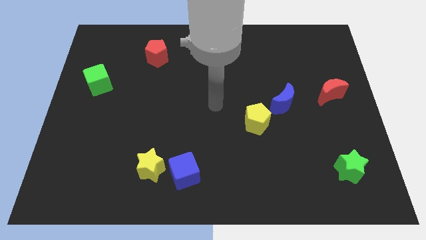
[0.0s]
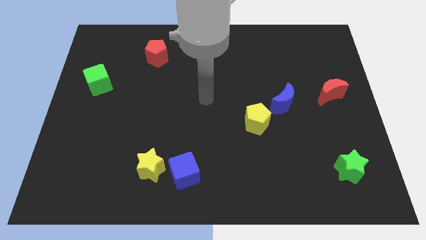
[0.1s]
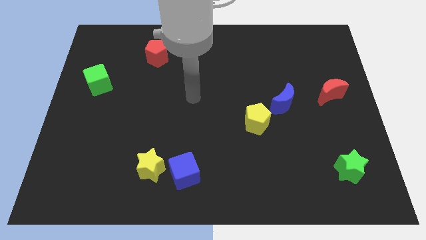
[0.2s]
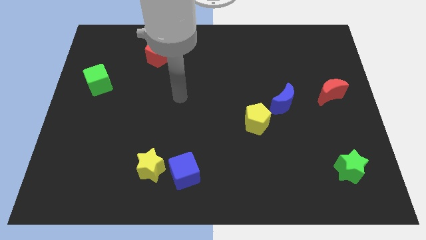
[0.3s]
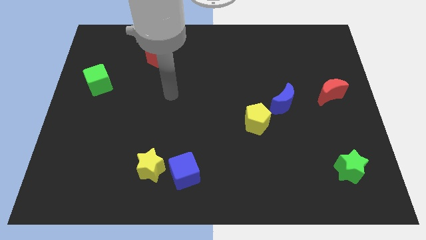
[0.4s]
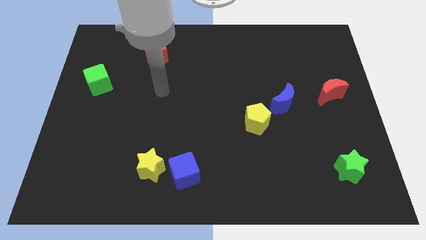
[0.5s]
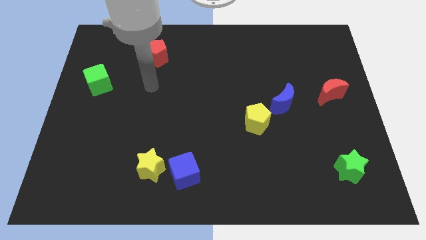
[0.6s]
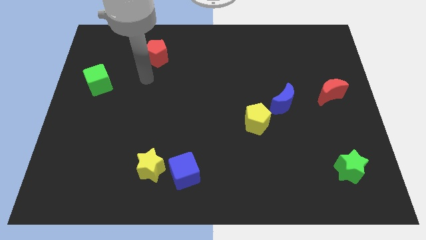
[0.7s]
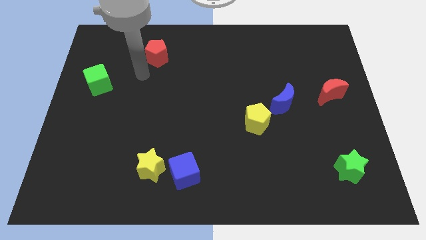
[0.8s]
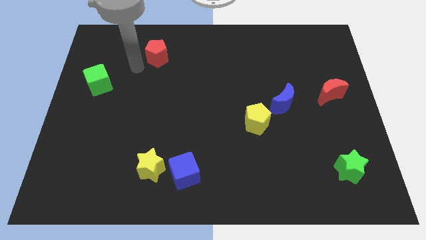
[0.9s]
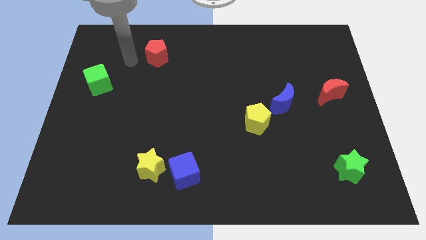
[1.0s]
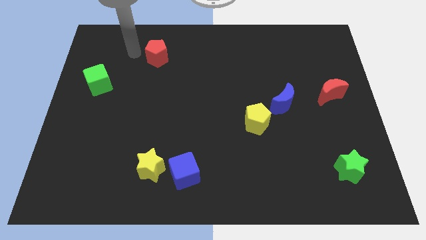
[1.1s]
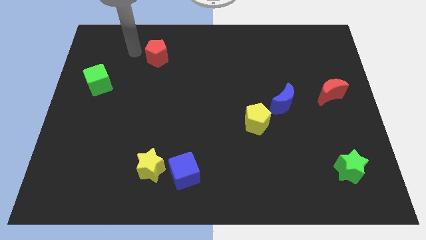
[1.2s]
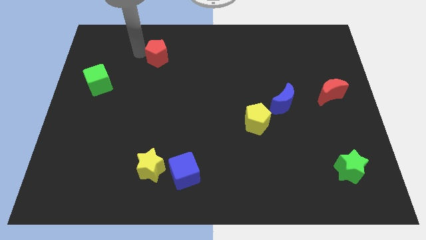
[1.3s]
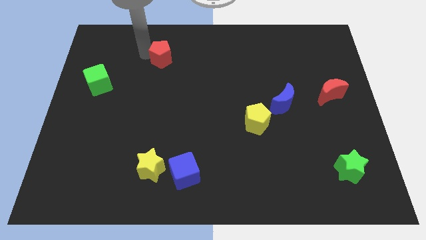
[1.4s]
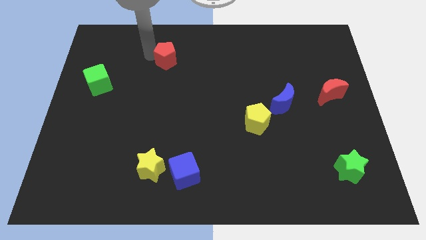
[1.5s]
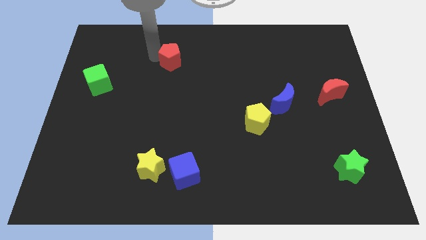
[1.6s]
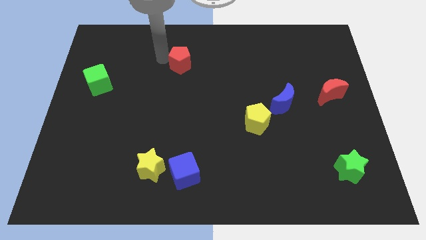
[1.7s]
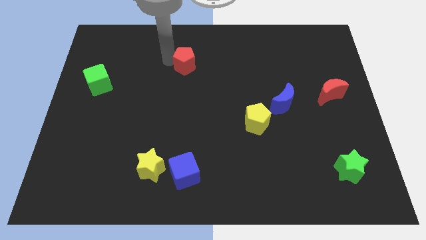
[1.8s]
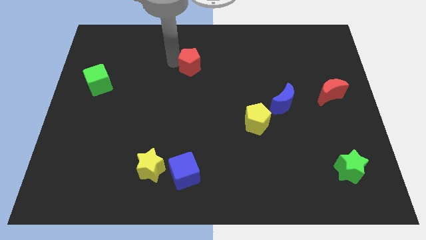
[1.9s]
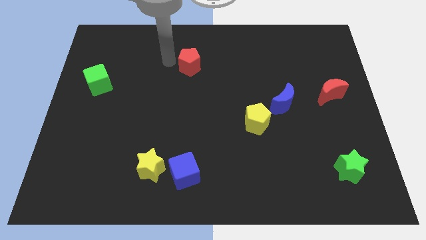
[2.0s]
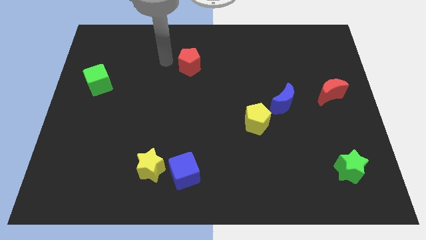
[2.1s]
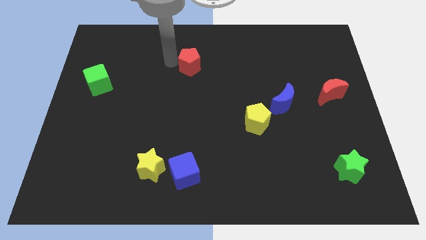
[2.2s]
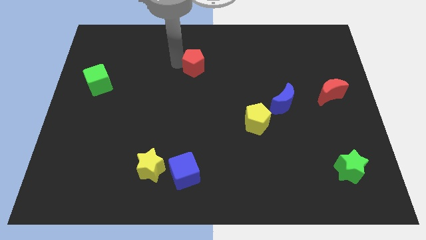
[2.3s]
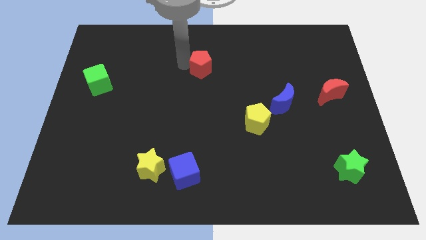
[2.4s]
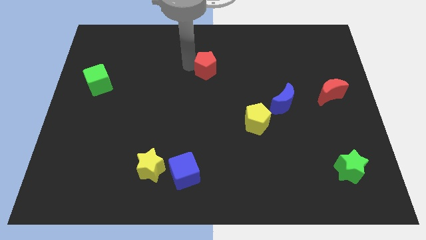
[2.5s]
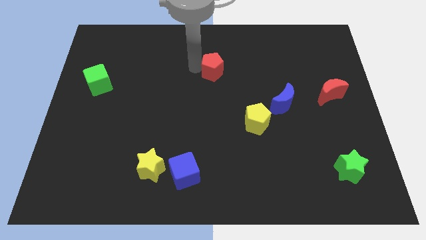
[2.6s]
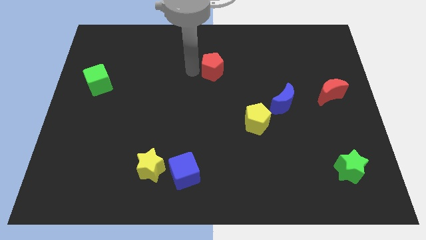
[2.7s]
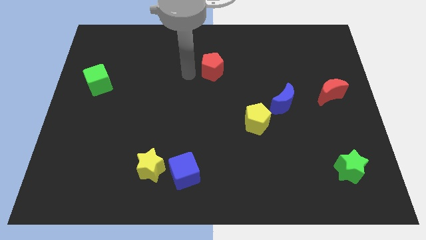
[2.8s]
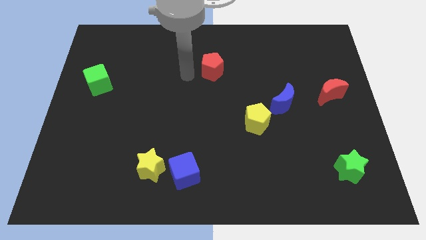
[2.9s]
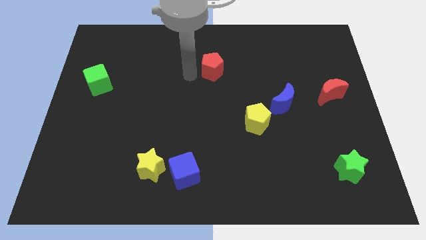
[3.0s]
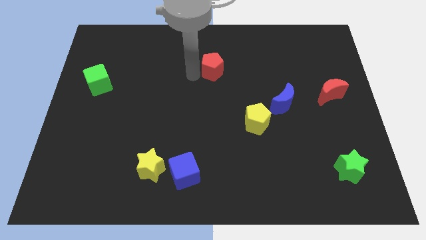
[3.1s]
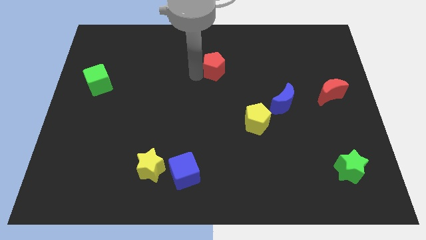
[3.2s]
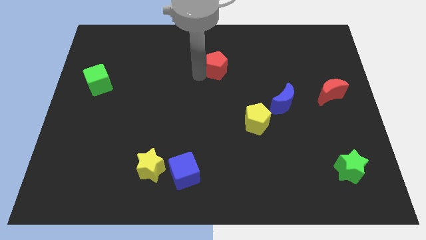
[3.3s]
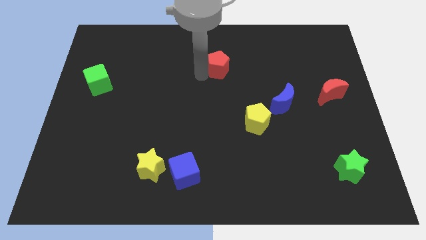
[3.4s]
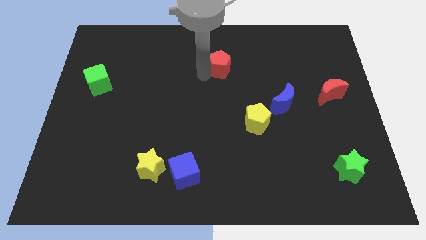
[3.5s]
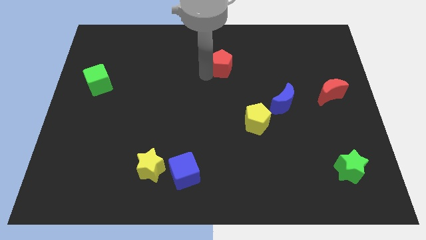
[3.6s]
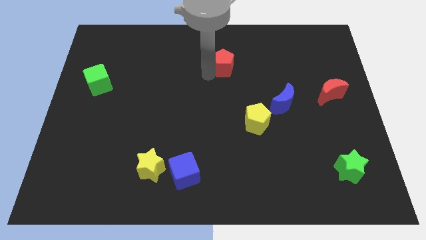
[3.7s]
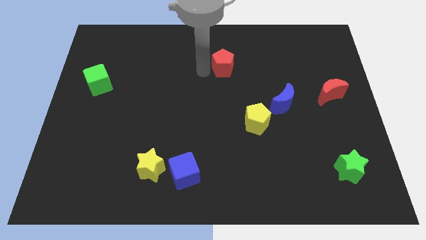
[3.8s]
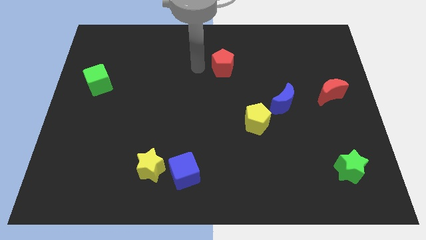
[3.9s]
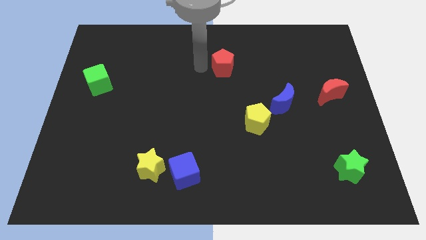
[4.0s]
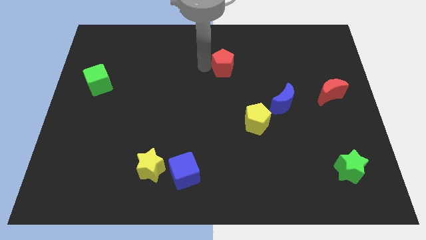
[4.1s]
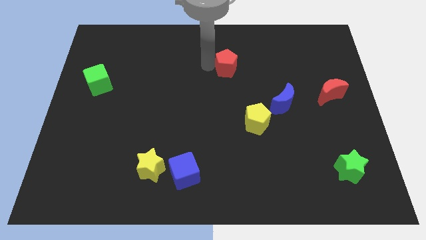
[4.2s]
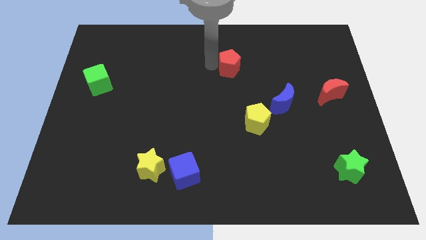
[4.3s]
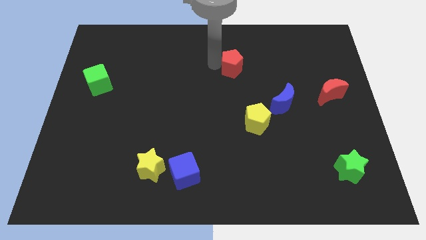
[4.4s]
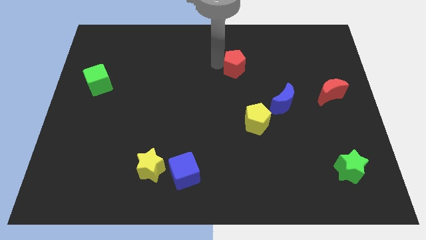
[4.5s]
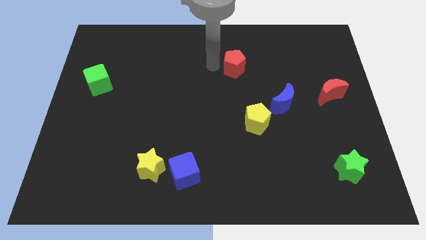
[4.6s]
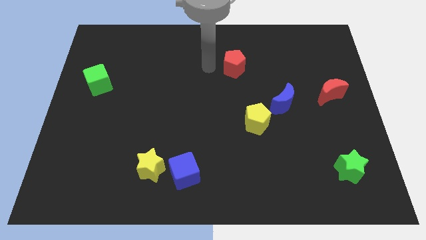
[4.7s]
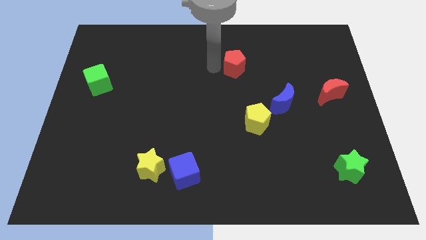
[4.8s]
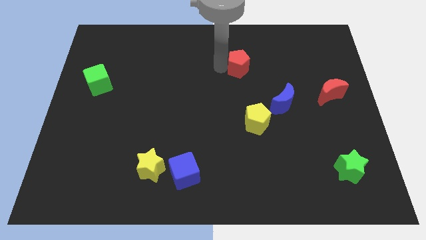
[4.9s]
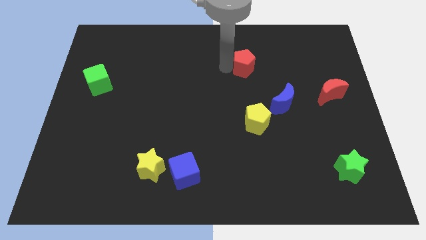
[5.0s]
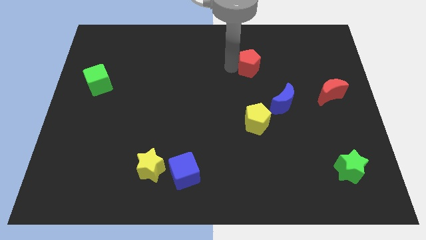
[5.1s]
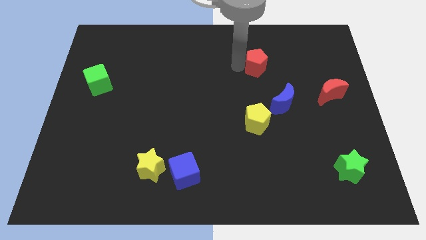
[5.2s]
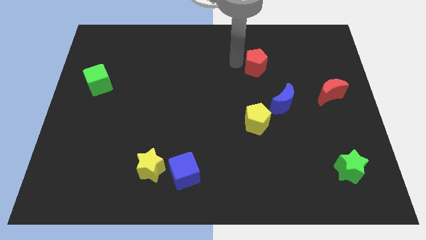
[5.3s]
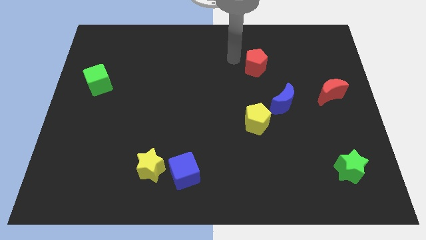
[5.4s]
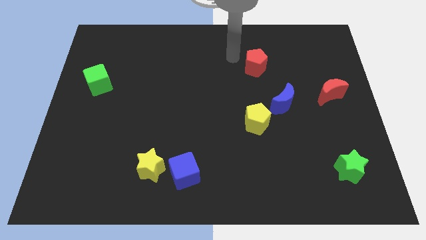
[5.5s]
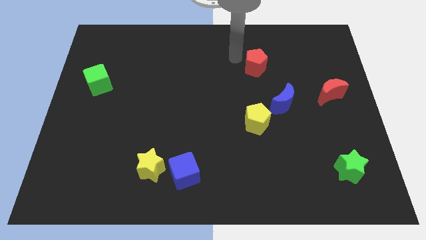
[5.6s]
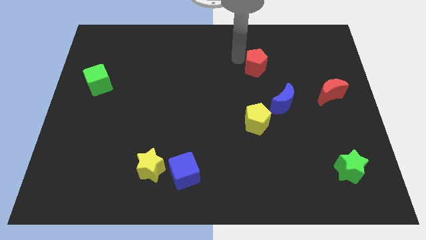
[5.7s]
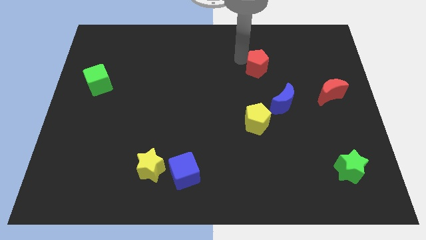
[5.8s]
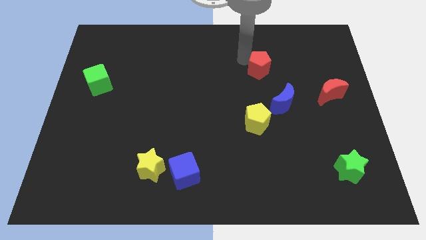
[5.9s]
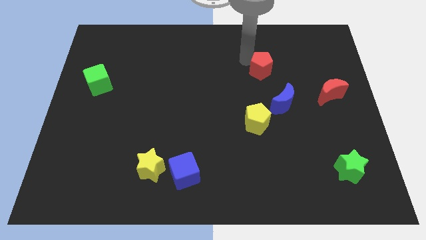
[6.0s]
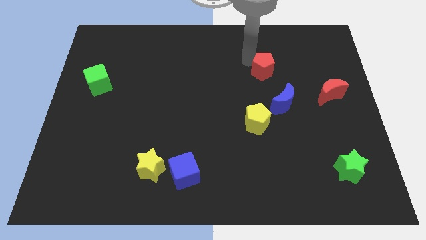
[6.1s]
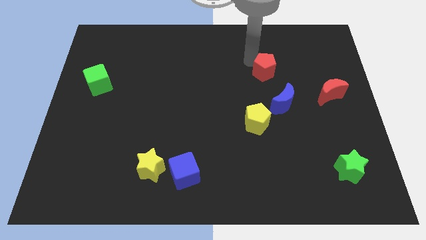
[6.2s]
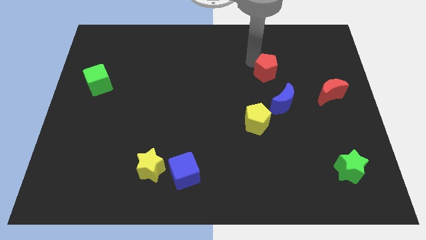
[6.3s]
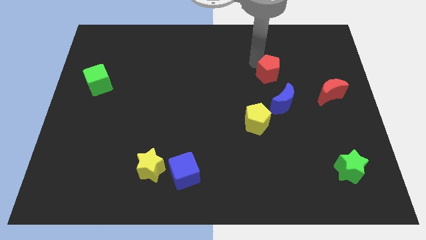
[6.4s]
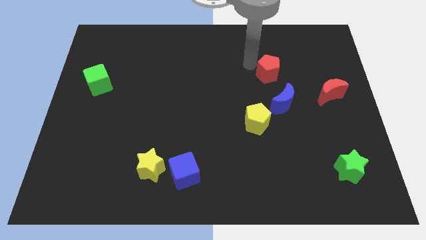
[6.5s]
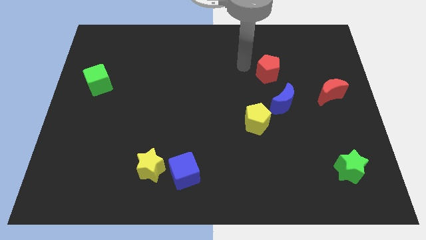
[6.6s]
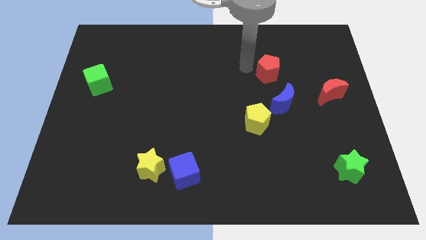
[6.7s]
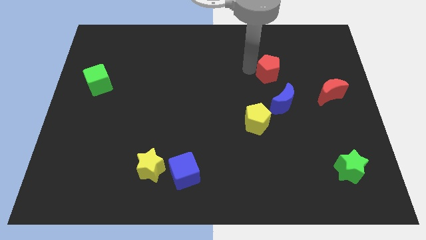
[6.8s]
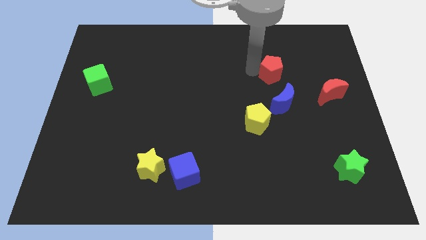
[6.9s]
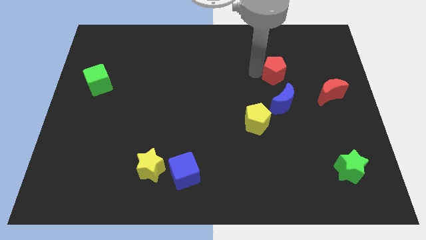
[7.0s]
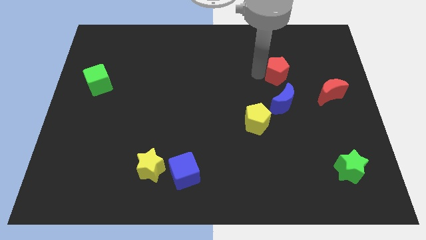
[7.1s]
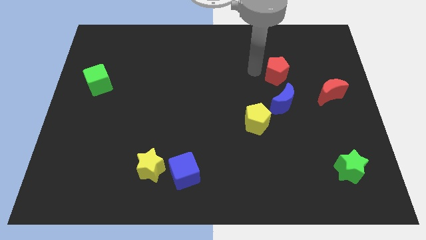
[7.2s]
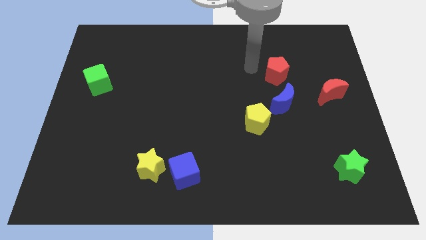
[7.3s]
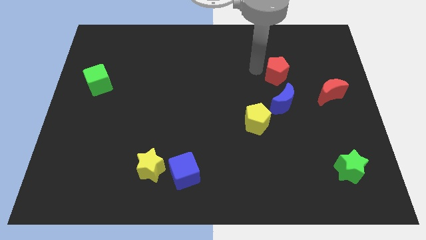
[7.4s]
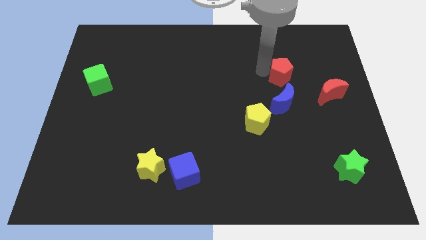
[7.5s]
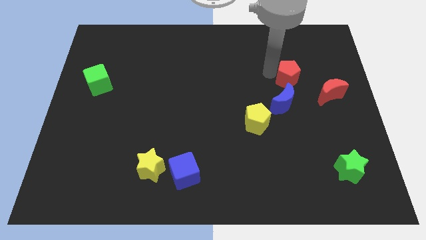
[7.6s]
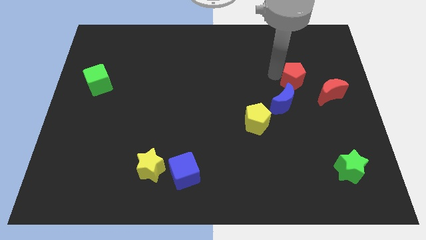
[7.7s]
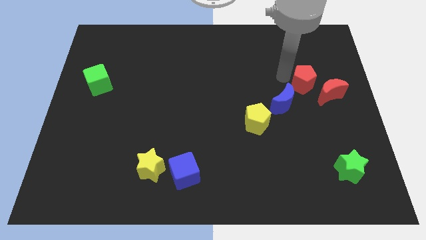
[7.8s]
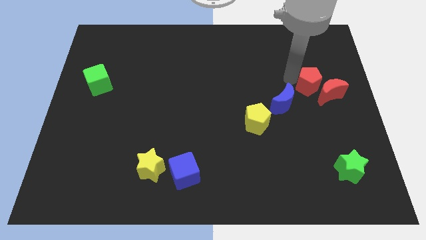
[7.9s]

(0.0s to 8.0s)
move the red pentagon close to the red moon
